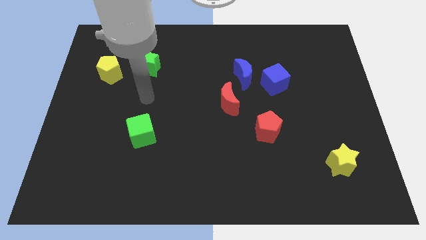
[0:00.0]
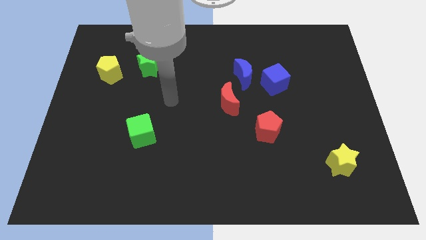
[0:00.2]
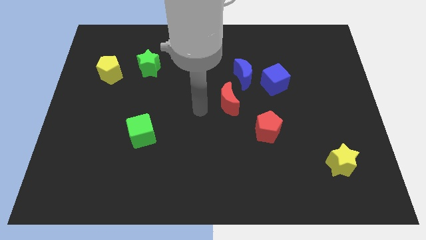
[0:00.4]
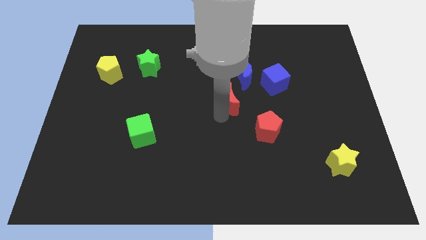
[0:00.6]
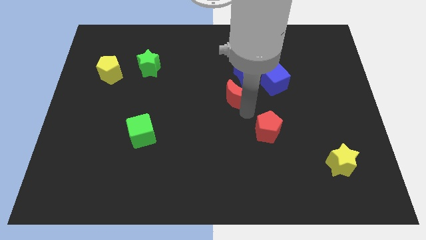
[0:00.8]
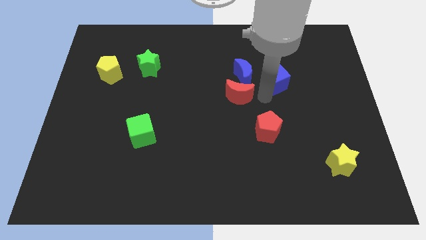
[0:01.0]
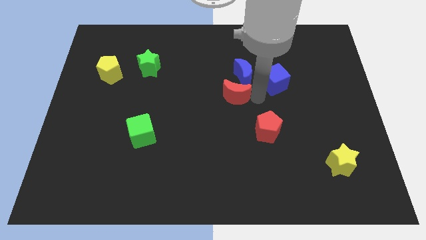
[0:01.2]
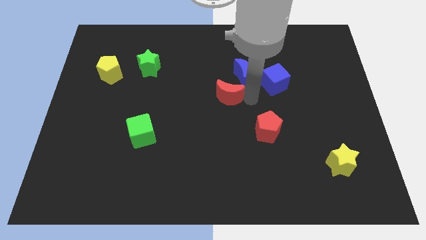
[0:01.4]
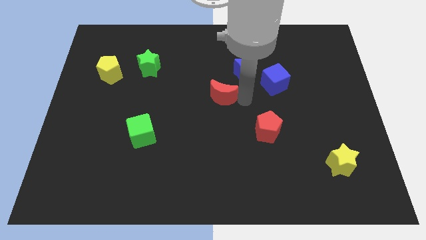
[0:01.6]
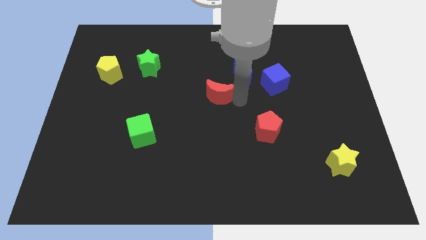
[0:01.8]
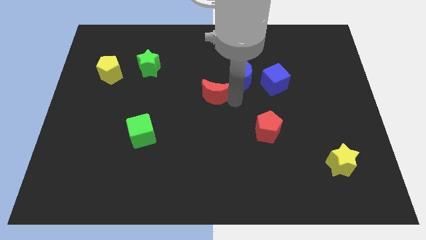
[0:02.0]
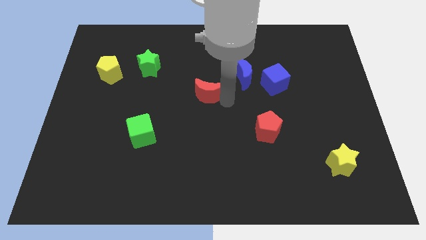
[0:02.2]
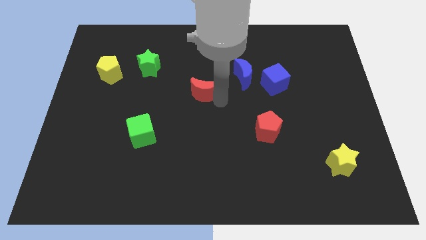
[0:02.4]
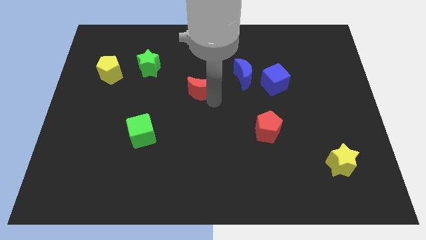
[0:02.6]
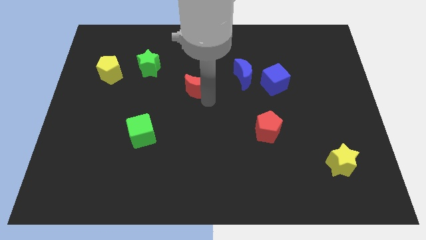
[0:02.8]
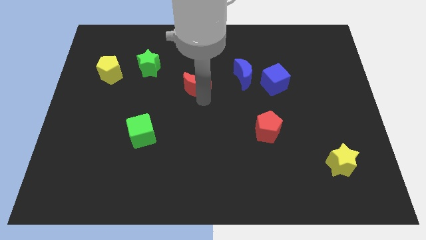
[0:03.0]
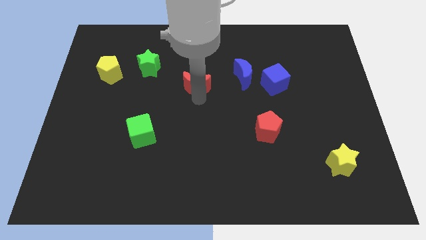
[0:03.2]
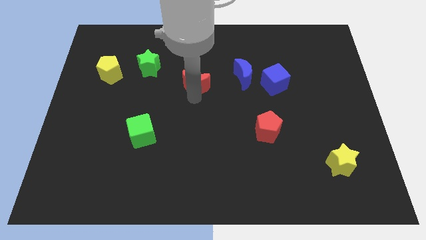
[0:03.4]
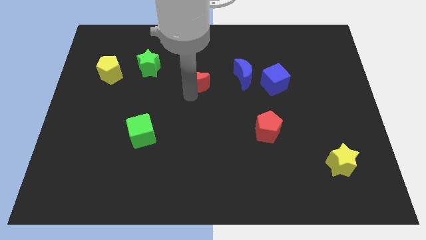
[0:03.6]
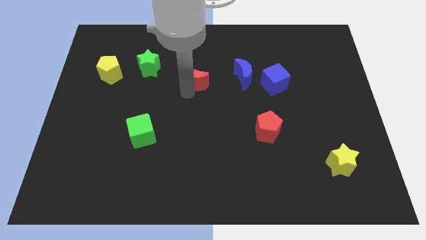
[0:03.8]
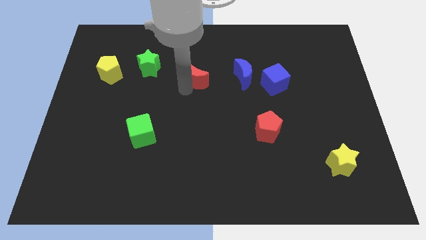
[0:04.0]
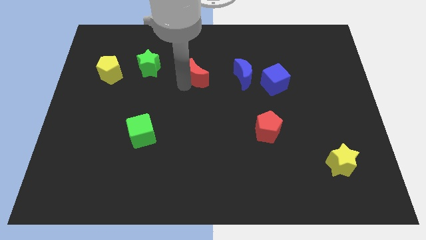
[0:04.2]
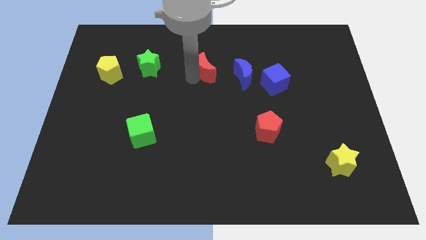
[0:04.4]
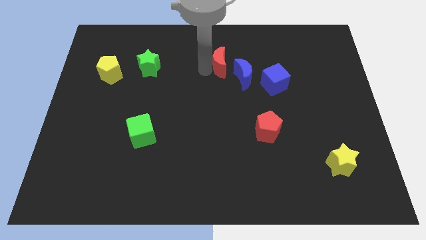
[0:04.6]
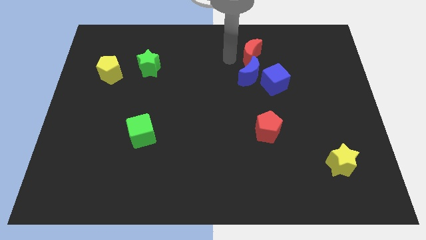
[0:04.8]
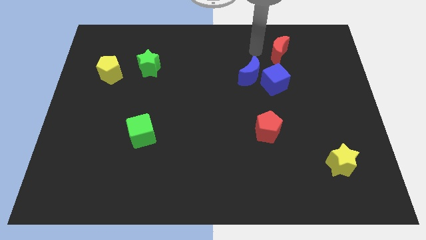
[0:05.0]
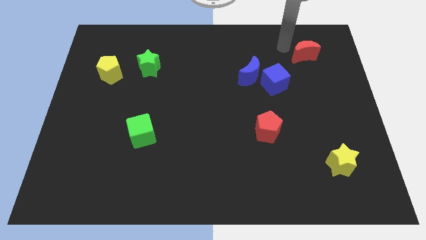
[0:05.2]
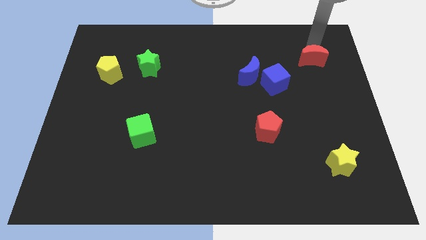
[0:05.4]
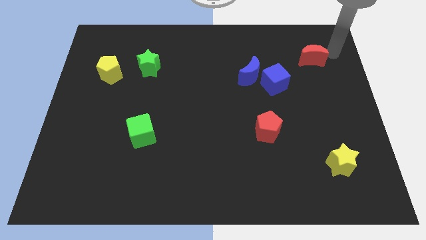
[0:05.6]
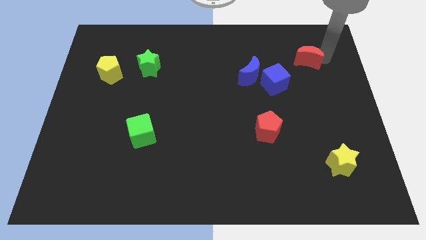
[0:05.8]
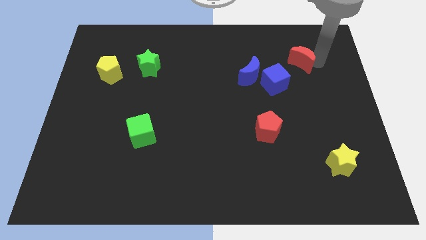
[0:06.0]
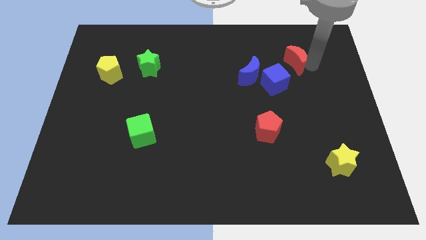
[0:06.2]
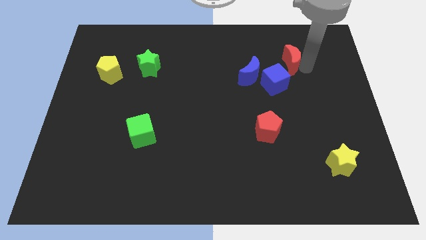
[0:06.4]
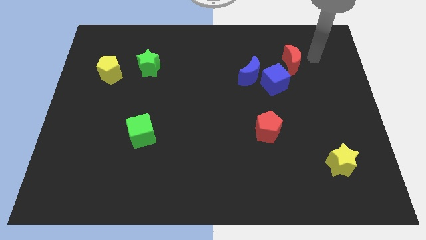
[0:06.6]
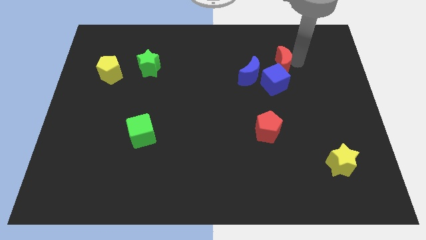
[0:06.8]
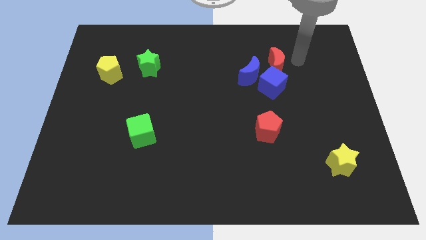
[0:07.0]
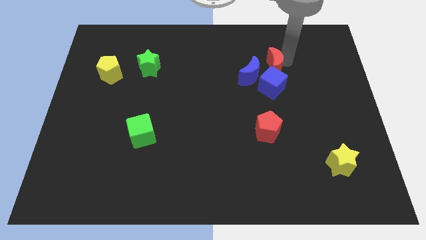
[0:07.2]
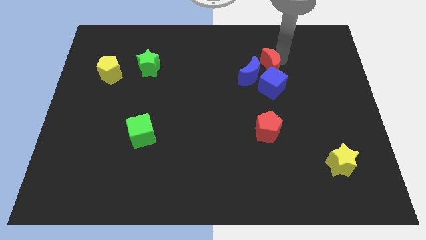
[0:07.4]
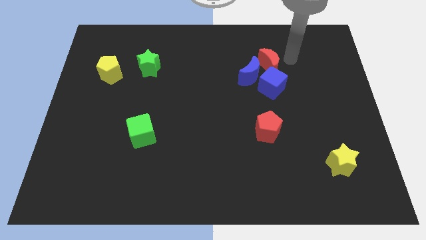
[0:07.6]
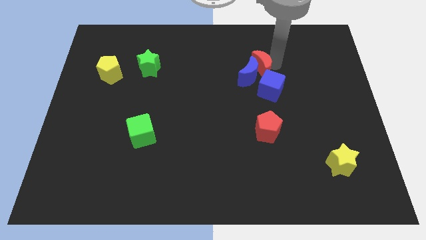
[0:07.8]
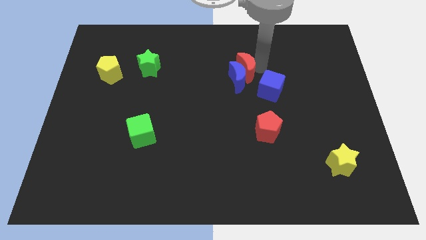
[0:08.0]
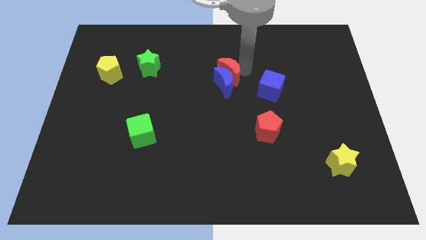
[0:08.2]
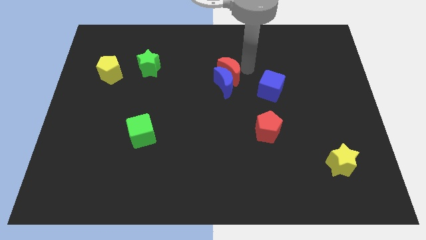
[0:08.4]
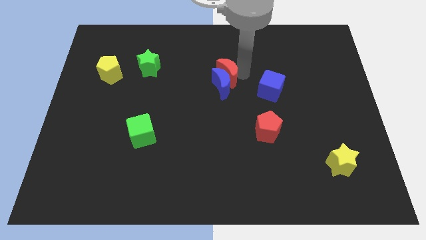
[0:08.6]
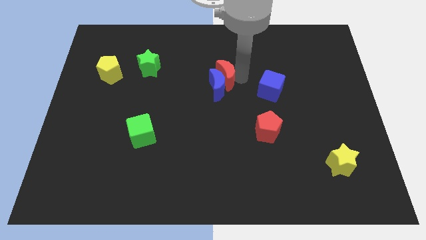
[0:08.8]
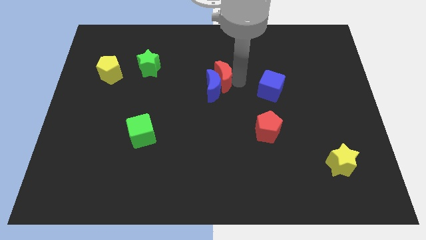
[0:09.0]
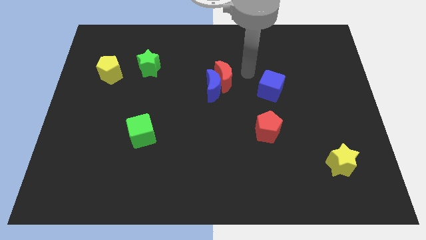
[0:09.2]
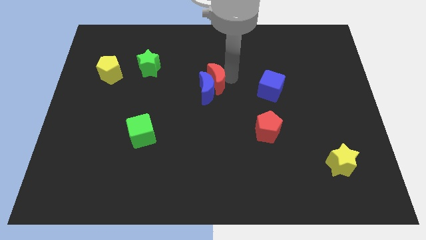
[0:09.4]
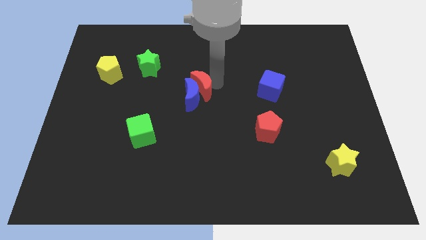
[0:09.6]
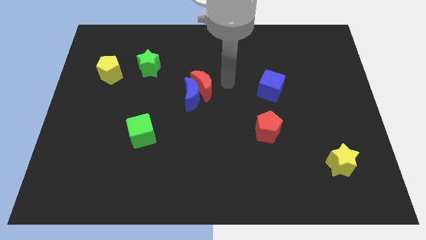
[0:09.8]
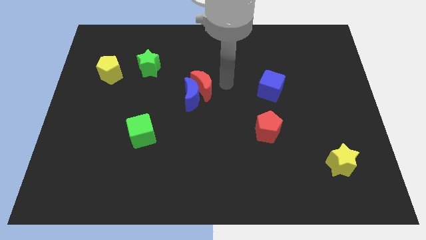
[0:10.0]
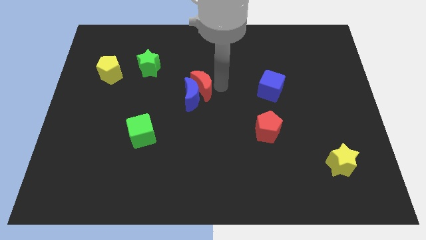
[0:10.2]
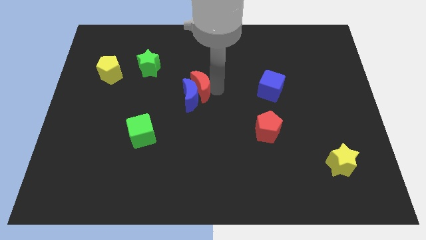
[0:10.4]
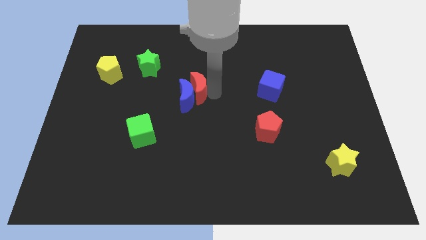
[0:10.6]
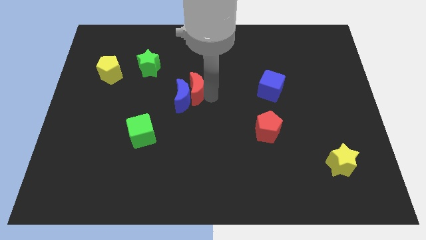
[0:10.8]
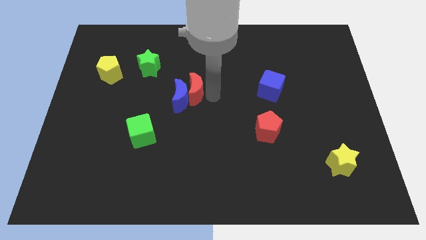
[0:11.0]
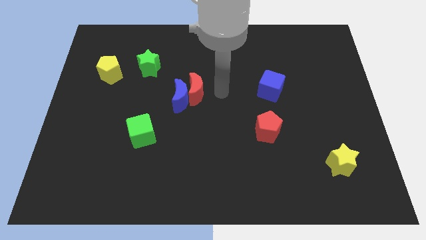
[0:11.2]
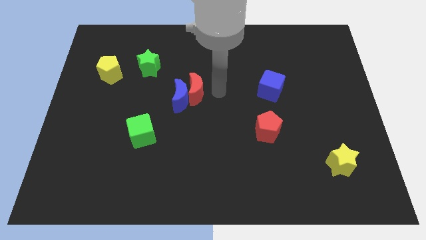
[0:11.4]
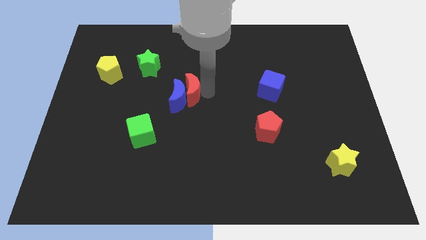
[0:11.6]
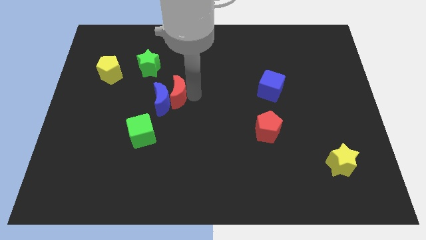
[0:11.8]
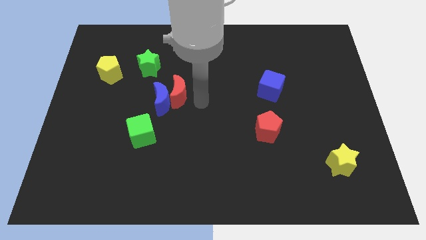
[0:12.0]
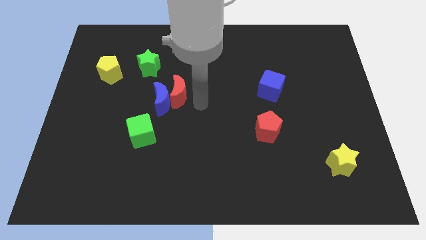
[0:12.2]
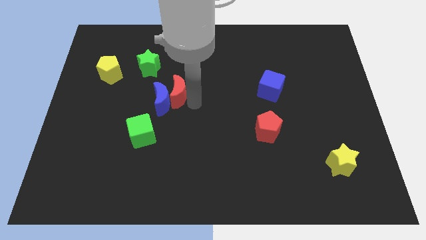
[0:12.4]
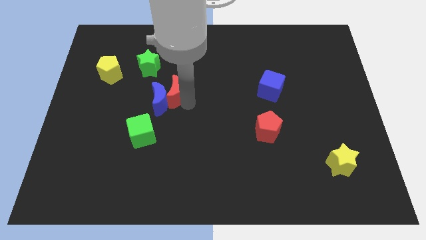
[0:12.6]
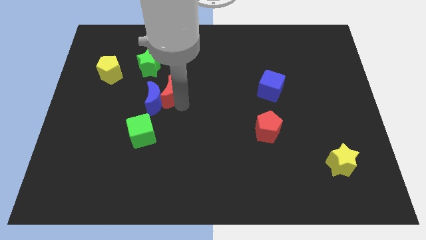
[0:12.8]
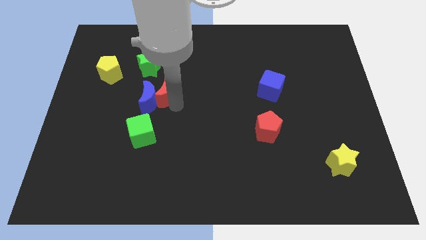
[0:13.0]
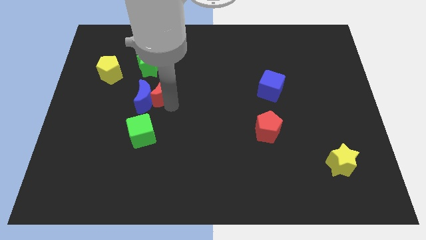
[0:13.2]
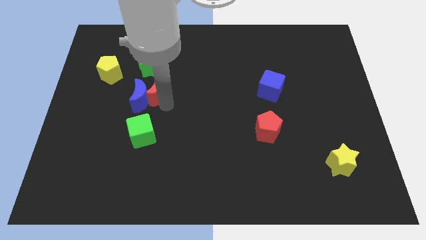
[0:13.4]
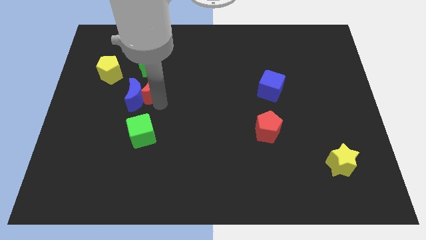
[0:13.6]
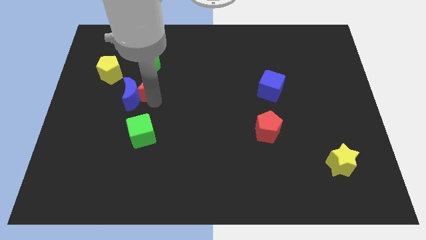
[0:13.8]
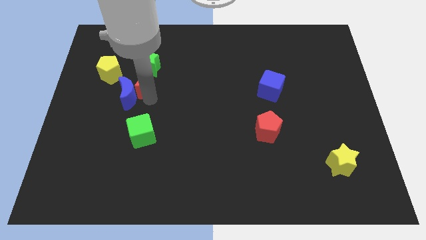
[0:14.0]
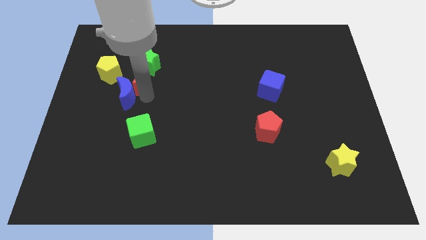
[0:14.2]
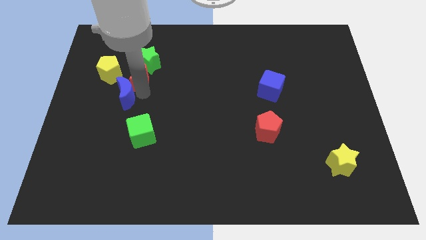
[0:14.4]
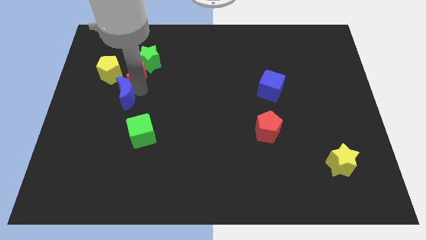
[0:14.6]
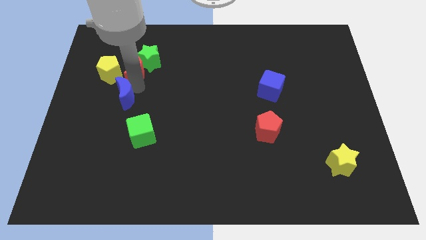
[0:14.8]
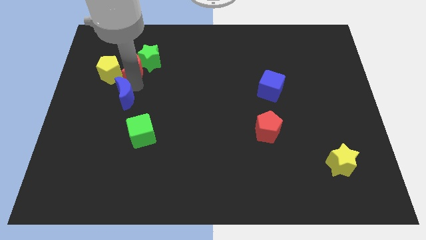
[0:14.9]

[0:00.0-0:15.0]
slide the red moon towards the yellow pentagon
